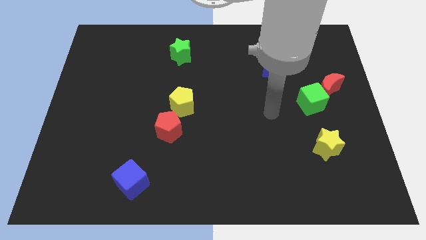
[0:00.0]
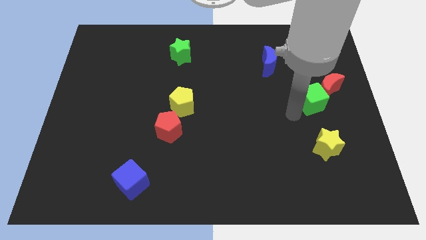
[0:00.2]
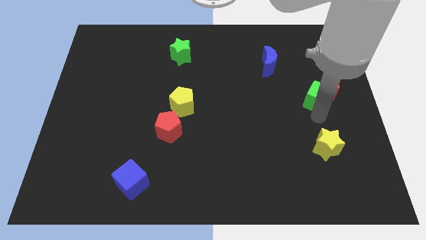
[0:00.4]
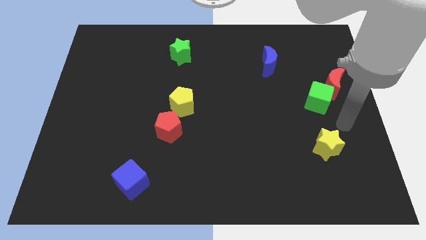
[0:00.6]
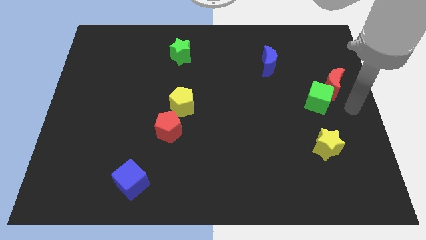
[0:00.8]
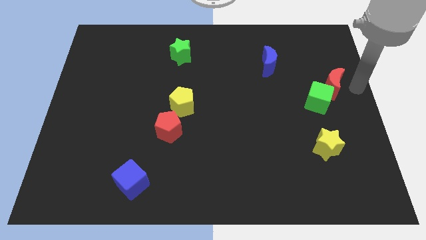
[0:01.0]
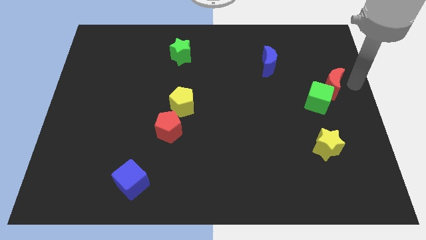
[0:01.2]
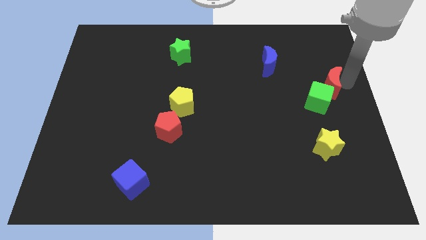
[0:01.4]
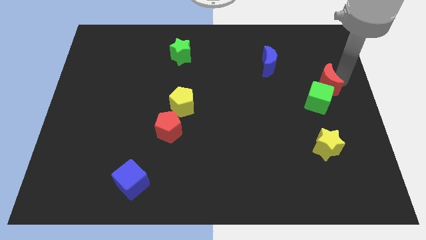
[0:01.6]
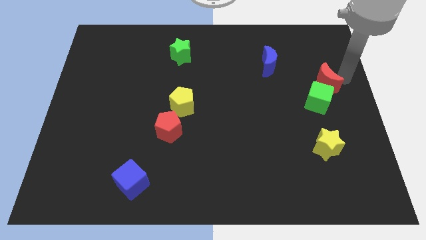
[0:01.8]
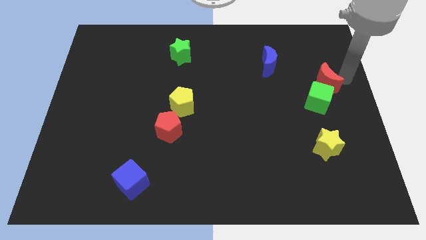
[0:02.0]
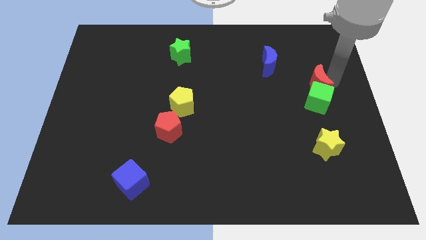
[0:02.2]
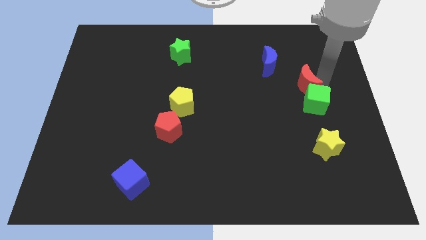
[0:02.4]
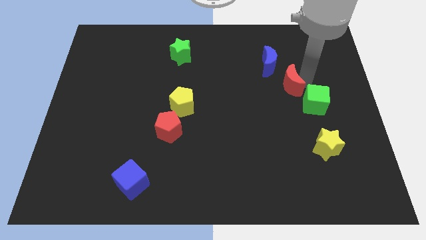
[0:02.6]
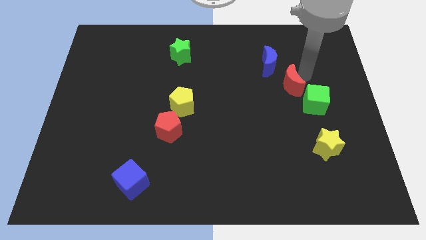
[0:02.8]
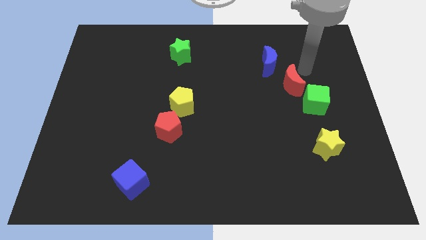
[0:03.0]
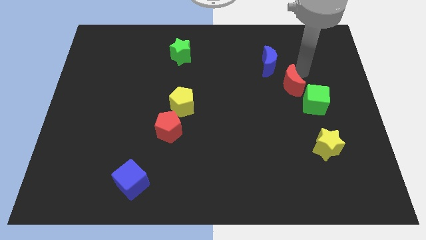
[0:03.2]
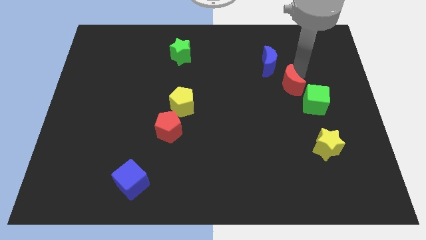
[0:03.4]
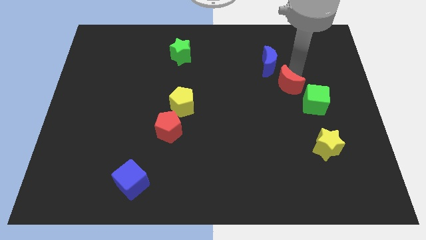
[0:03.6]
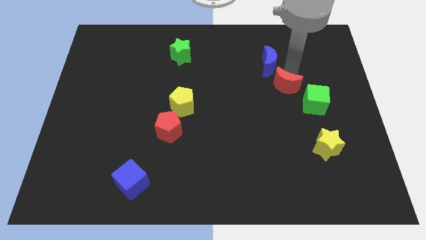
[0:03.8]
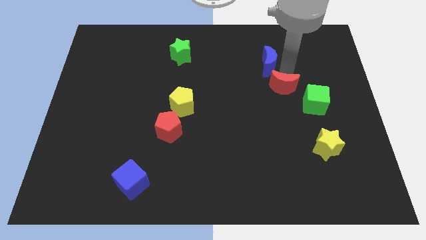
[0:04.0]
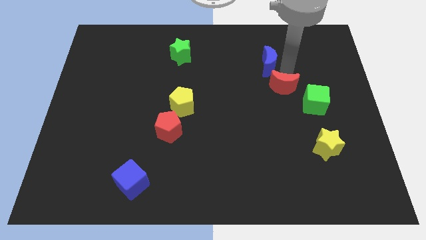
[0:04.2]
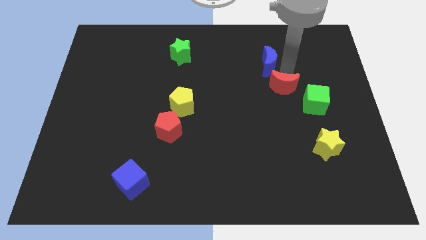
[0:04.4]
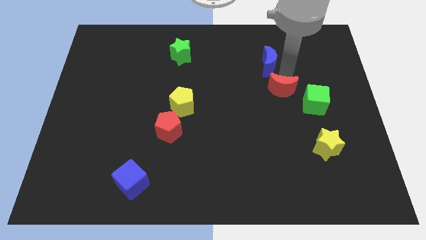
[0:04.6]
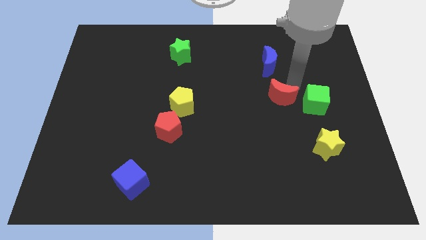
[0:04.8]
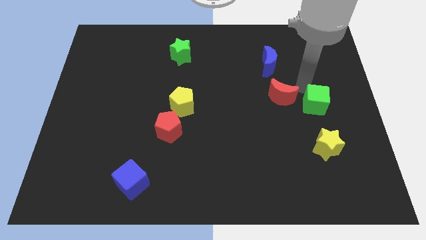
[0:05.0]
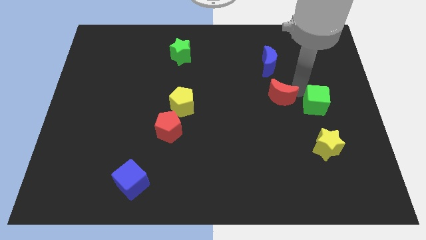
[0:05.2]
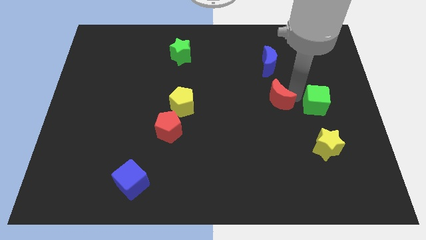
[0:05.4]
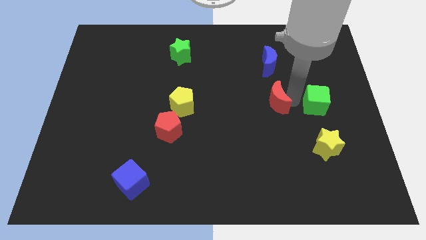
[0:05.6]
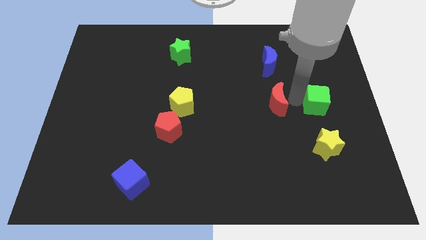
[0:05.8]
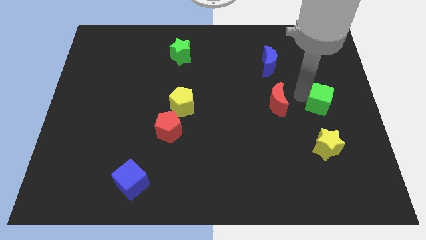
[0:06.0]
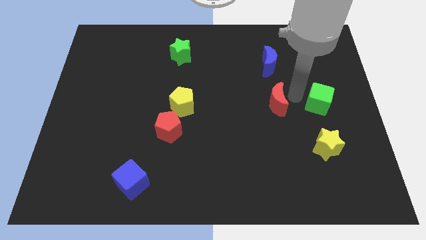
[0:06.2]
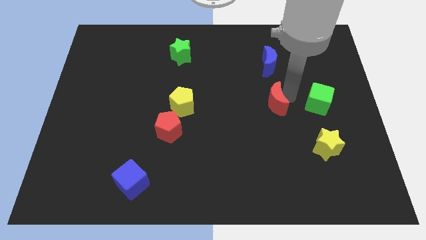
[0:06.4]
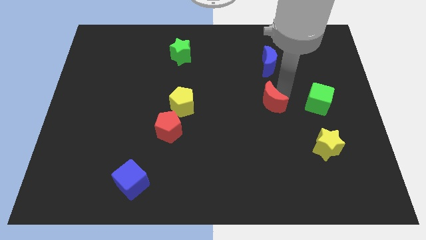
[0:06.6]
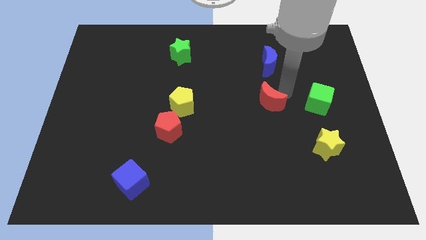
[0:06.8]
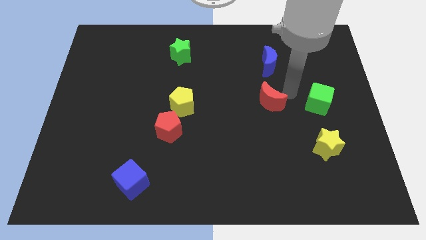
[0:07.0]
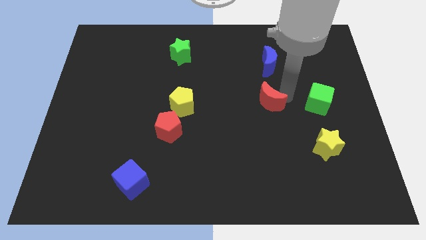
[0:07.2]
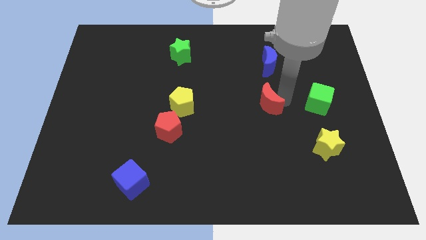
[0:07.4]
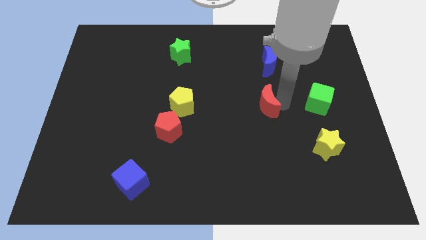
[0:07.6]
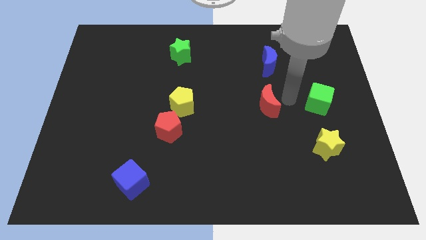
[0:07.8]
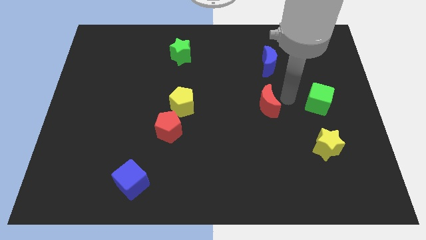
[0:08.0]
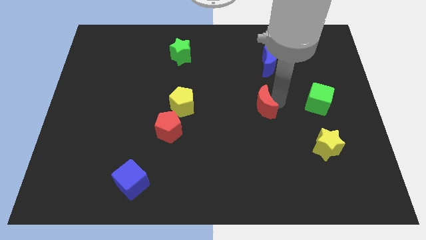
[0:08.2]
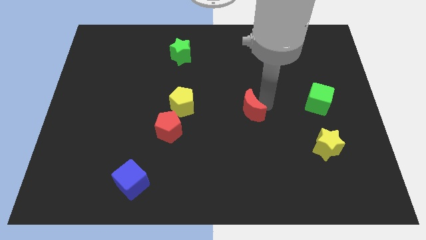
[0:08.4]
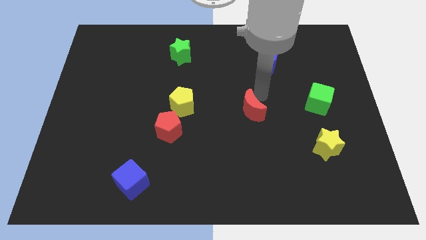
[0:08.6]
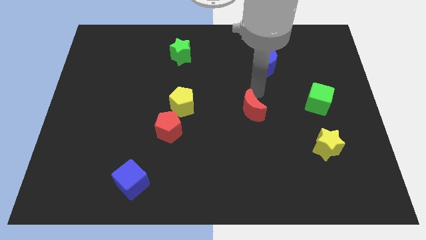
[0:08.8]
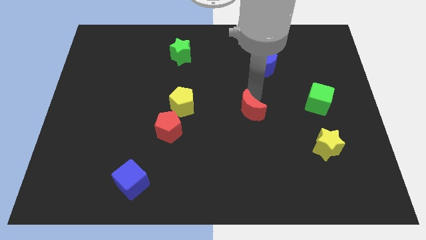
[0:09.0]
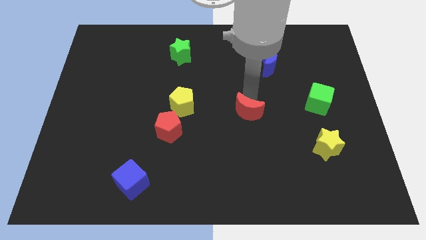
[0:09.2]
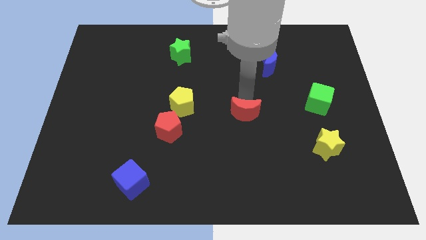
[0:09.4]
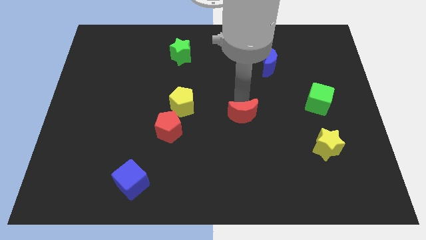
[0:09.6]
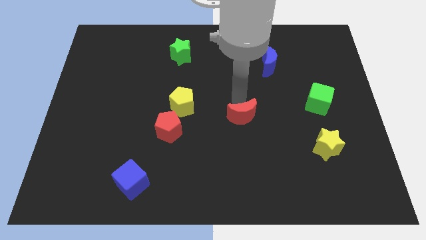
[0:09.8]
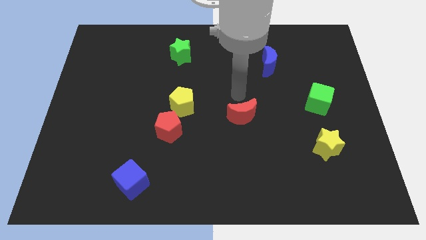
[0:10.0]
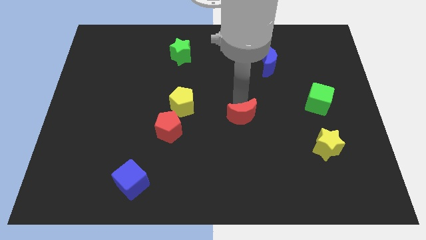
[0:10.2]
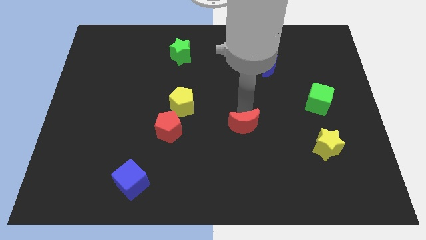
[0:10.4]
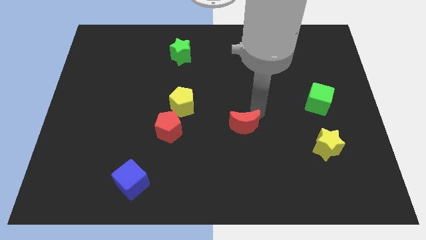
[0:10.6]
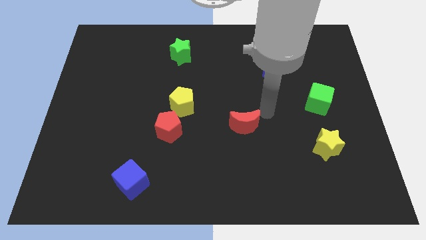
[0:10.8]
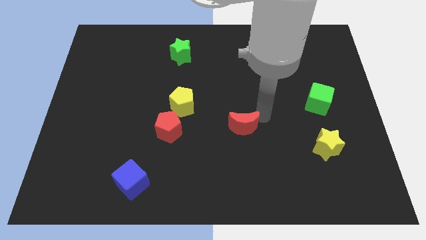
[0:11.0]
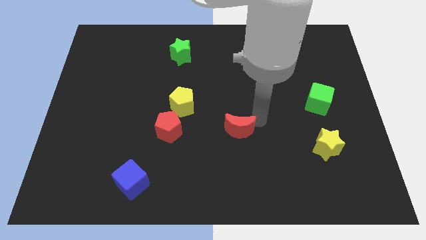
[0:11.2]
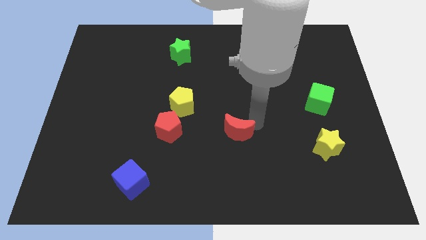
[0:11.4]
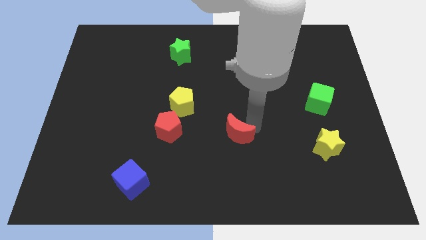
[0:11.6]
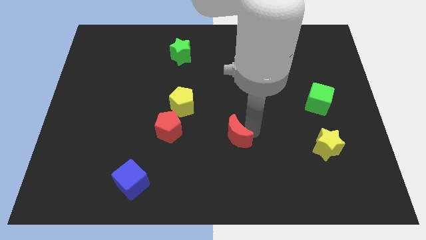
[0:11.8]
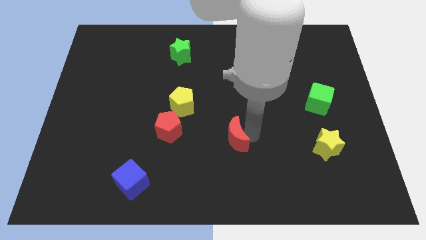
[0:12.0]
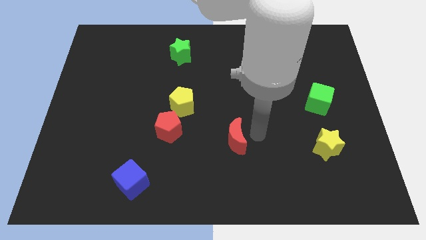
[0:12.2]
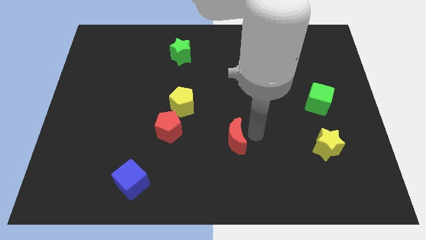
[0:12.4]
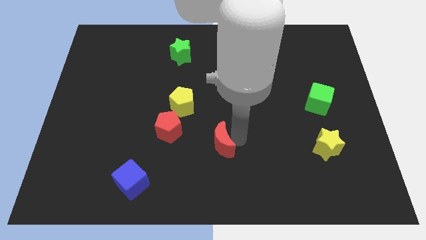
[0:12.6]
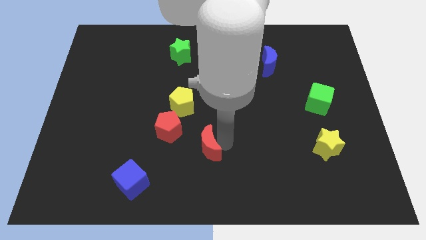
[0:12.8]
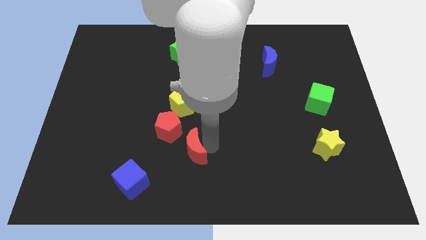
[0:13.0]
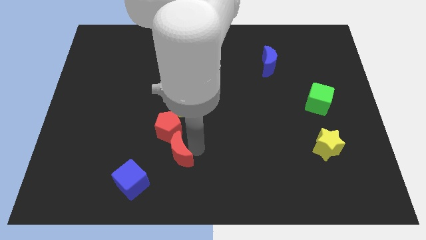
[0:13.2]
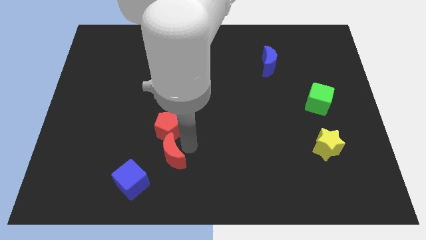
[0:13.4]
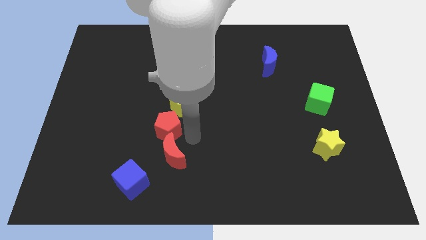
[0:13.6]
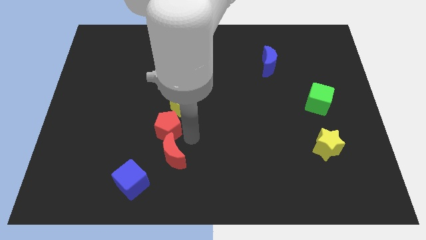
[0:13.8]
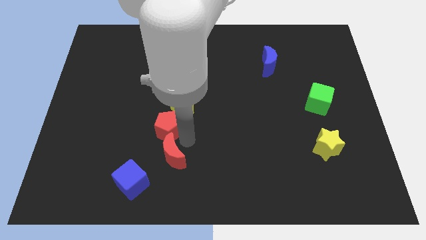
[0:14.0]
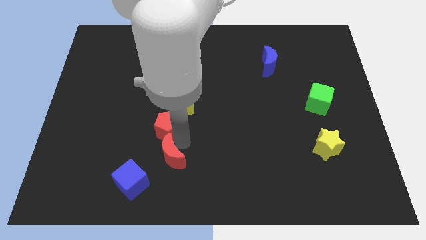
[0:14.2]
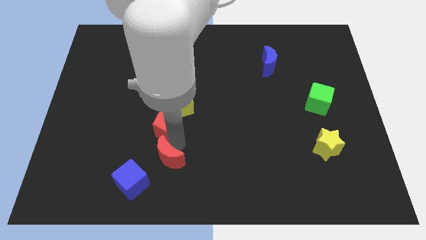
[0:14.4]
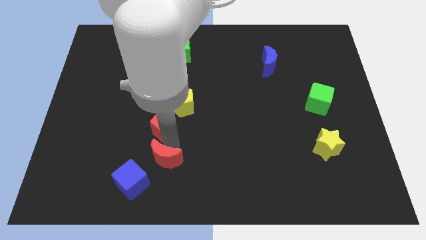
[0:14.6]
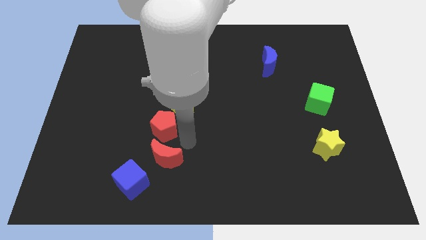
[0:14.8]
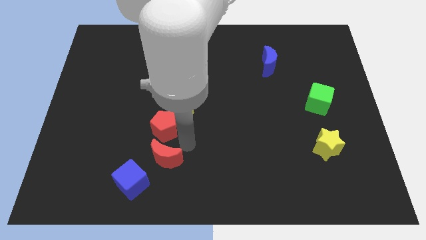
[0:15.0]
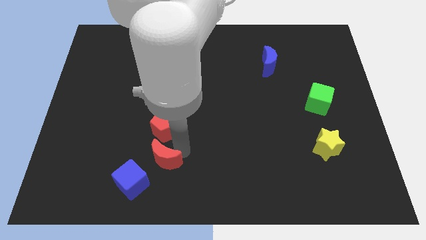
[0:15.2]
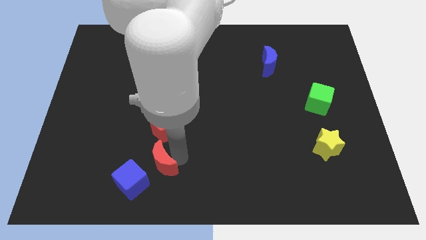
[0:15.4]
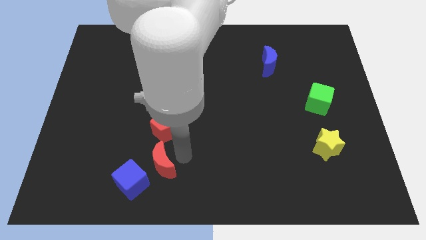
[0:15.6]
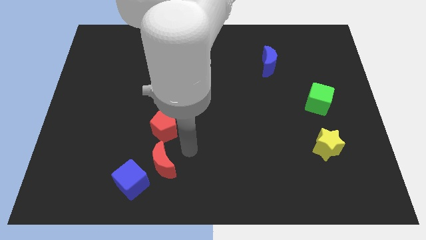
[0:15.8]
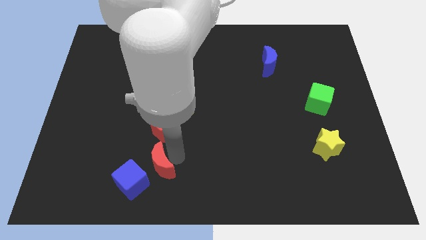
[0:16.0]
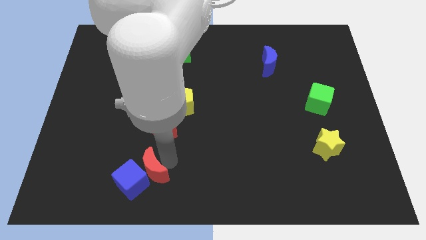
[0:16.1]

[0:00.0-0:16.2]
put the red moon towards the blue cube
